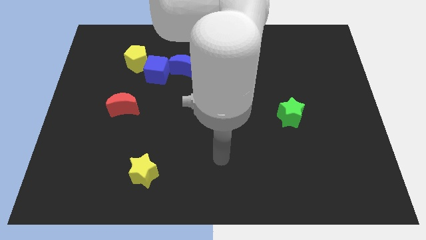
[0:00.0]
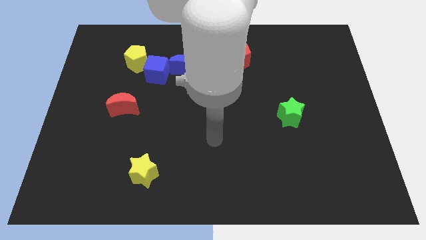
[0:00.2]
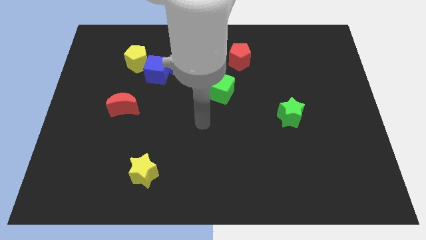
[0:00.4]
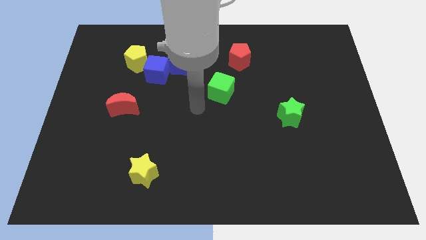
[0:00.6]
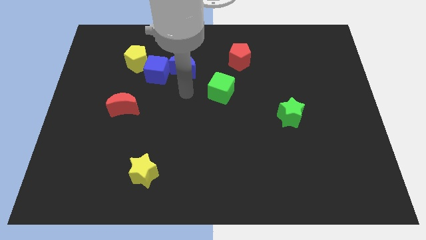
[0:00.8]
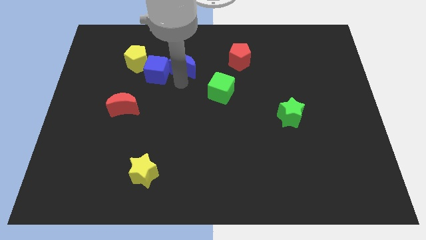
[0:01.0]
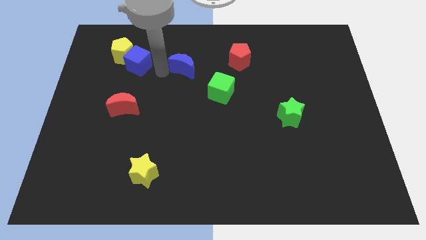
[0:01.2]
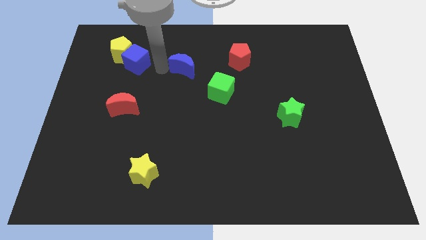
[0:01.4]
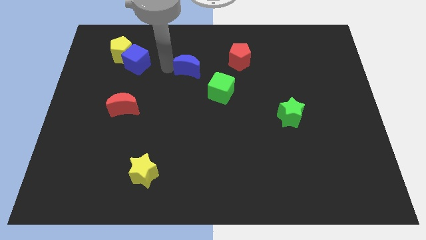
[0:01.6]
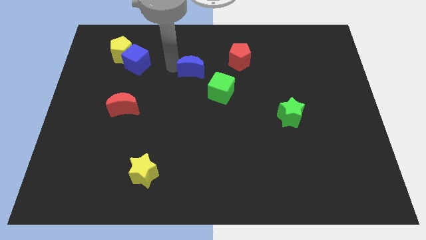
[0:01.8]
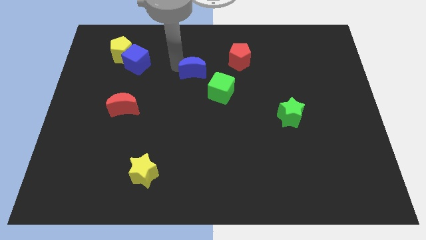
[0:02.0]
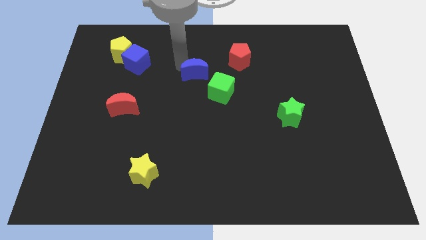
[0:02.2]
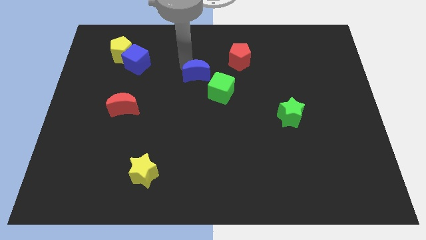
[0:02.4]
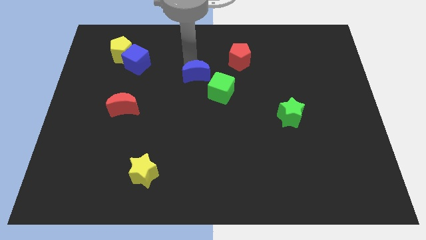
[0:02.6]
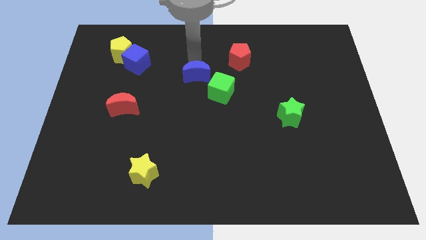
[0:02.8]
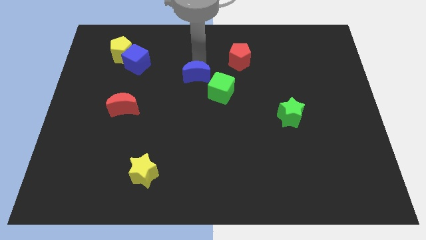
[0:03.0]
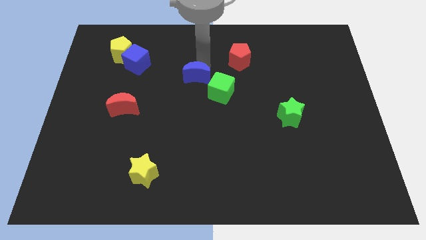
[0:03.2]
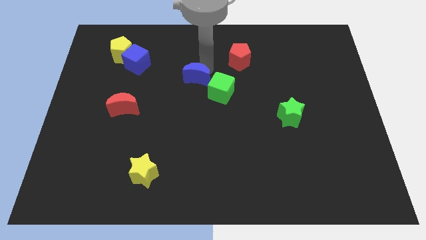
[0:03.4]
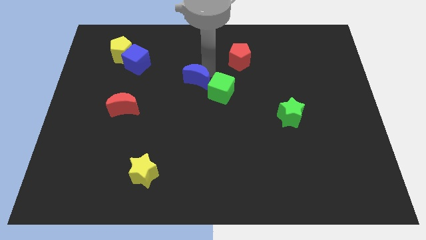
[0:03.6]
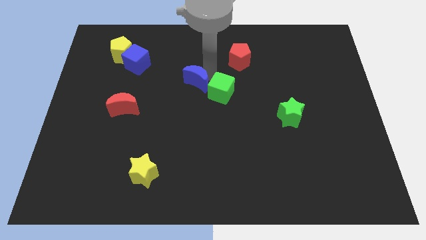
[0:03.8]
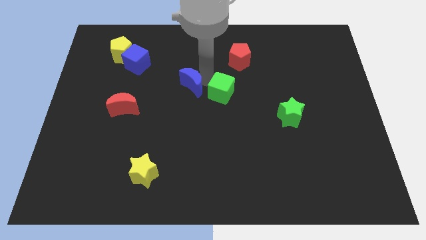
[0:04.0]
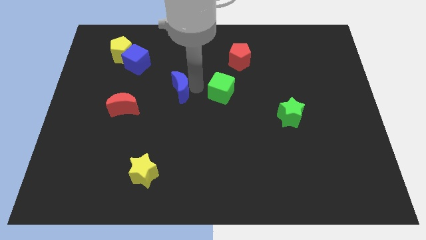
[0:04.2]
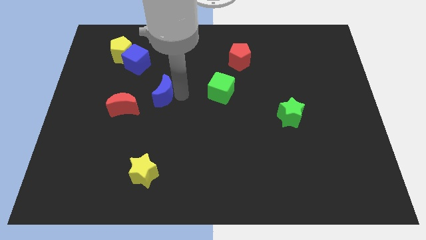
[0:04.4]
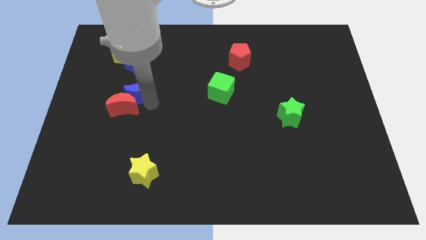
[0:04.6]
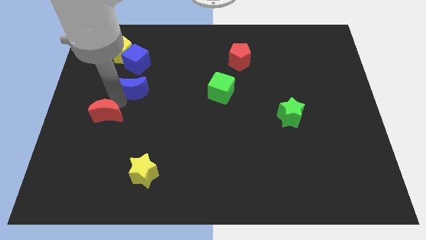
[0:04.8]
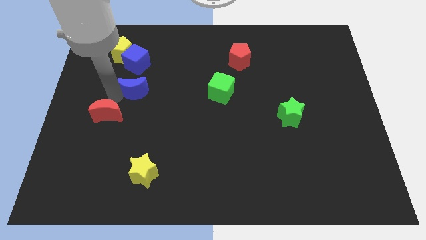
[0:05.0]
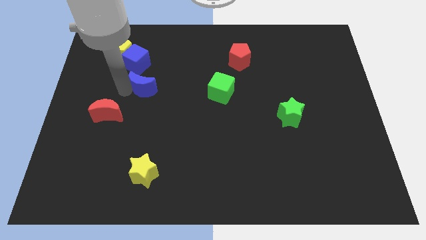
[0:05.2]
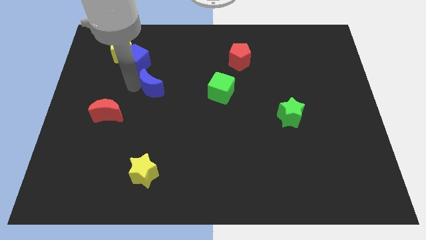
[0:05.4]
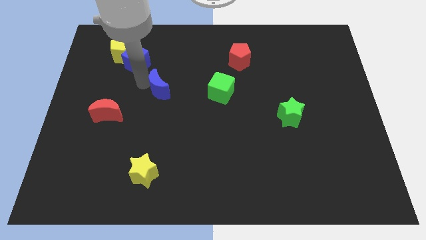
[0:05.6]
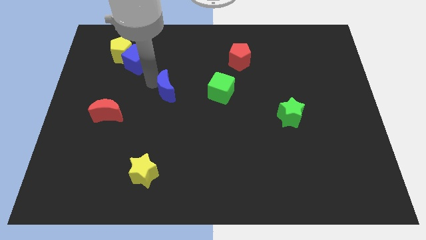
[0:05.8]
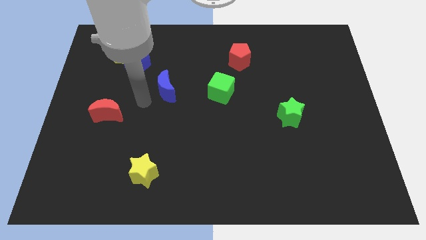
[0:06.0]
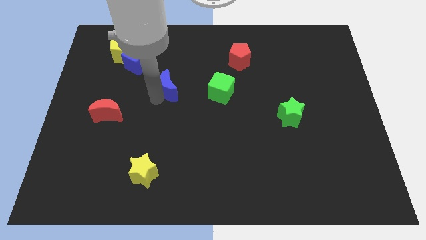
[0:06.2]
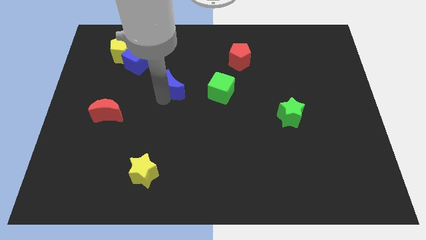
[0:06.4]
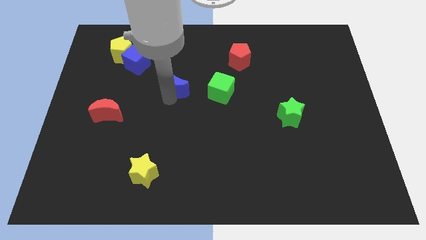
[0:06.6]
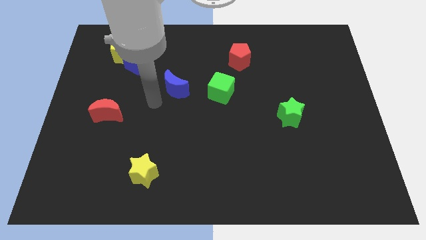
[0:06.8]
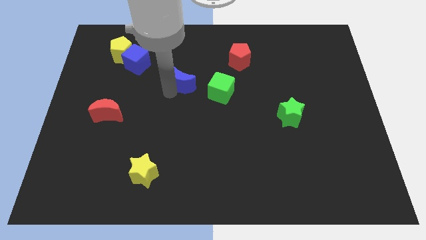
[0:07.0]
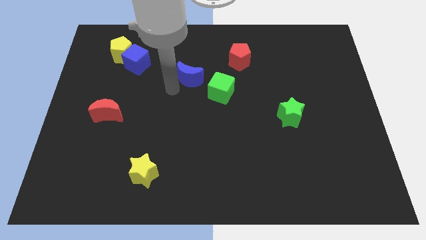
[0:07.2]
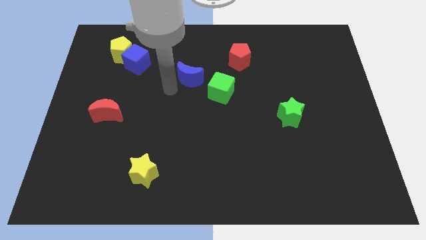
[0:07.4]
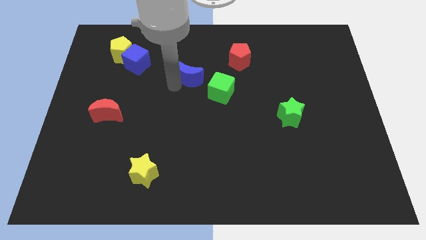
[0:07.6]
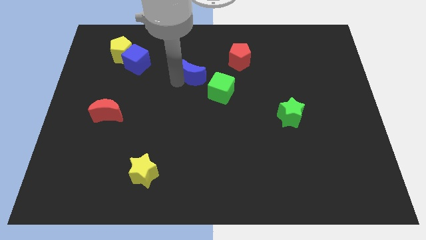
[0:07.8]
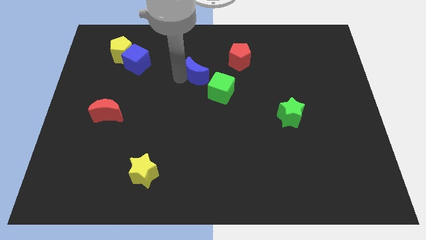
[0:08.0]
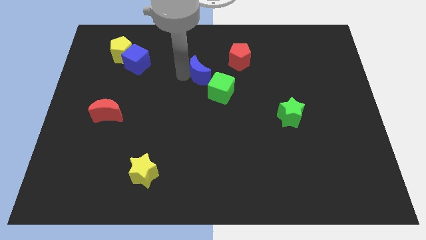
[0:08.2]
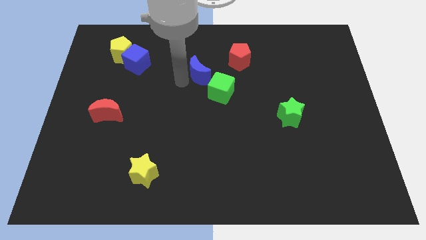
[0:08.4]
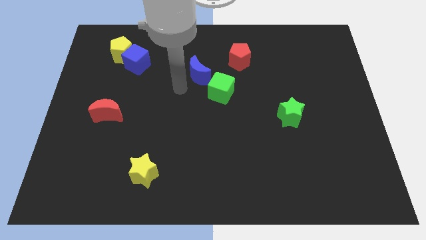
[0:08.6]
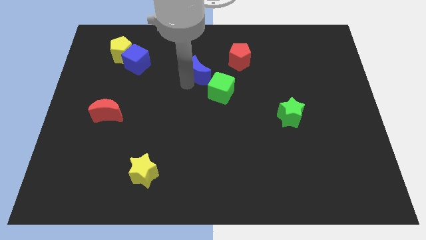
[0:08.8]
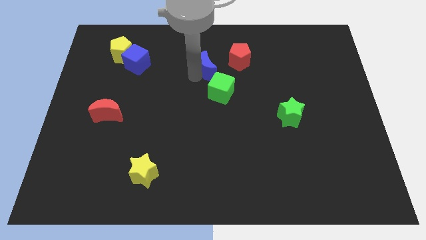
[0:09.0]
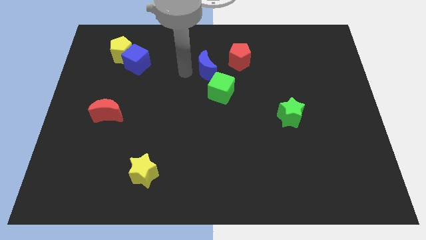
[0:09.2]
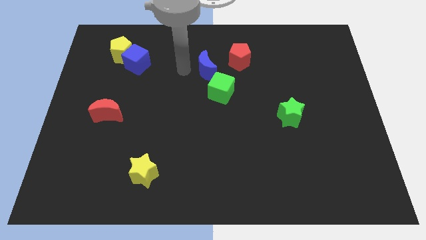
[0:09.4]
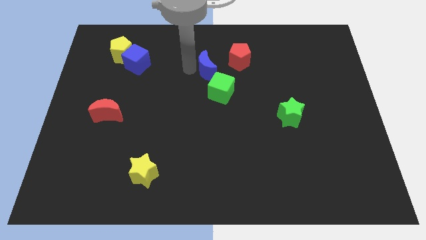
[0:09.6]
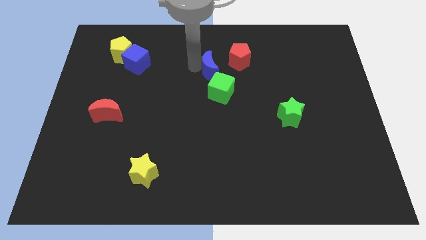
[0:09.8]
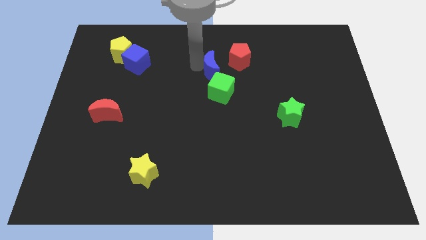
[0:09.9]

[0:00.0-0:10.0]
move the blue moon to the right a little

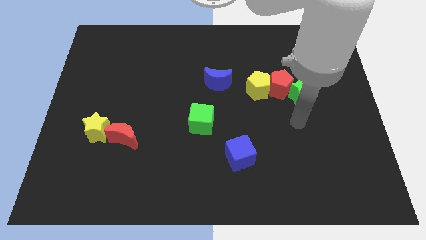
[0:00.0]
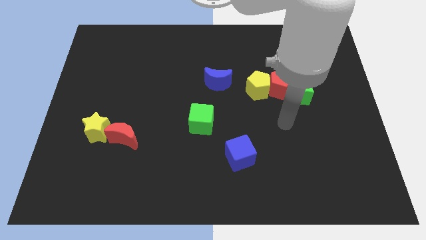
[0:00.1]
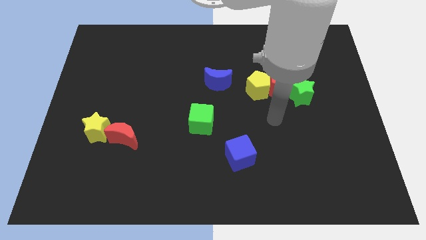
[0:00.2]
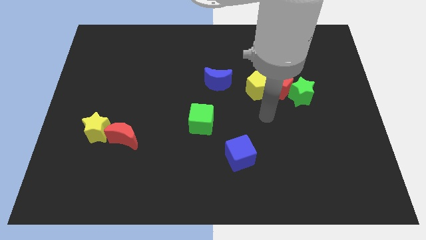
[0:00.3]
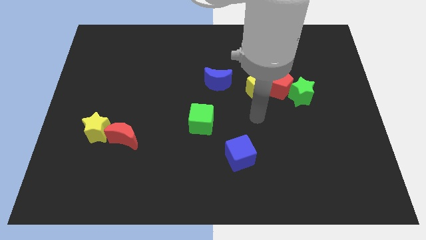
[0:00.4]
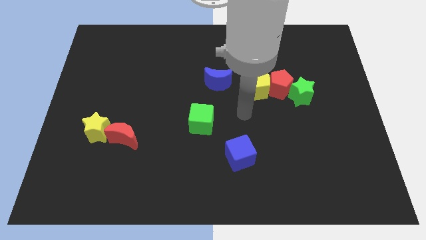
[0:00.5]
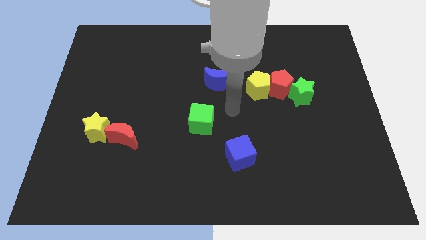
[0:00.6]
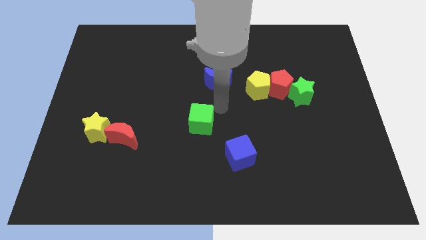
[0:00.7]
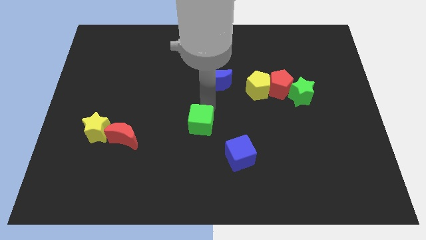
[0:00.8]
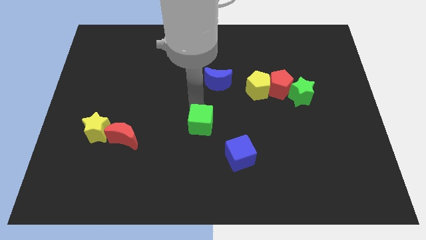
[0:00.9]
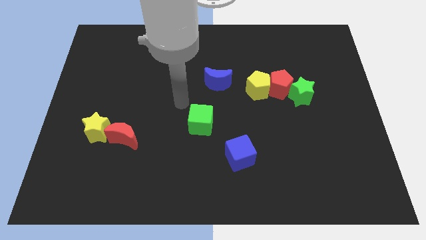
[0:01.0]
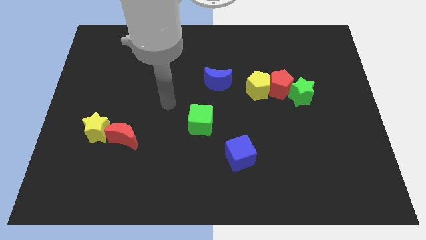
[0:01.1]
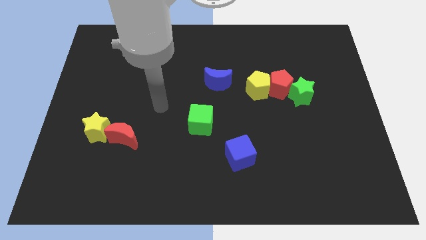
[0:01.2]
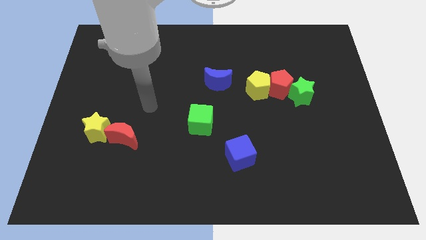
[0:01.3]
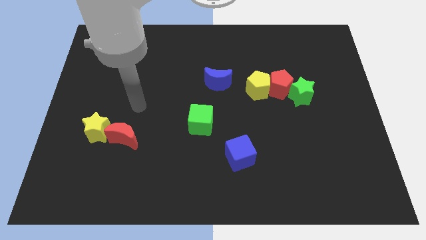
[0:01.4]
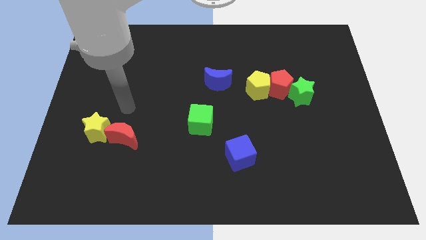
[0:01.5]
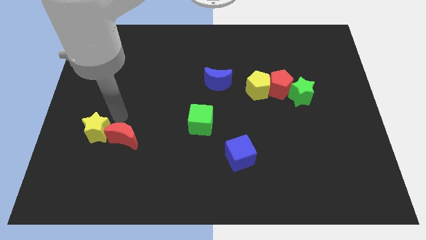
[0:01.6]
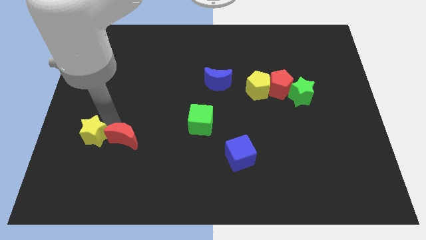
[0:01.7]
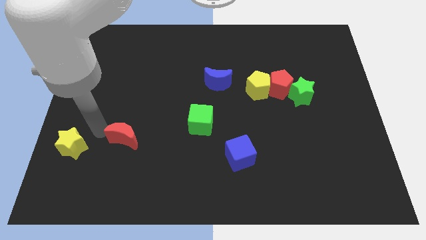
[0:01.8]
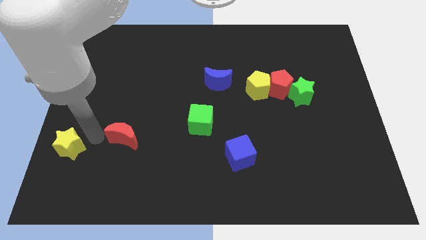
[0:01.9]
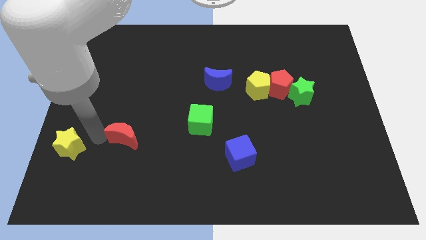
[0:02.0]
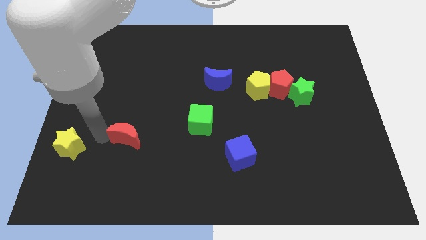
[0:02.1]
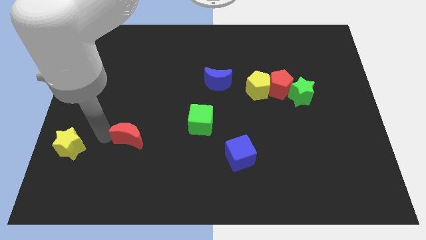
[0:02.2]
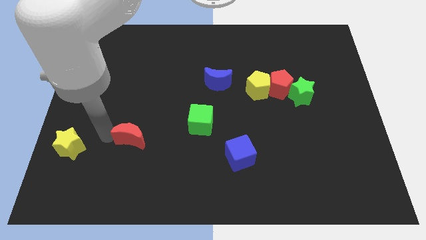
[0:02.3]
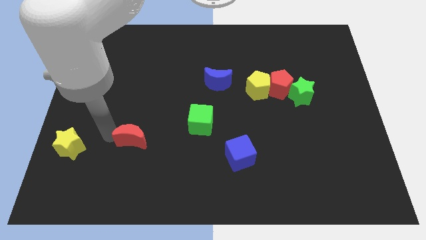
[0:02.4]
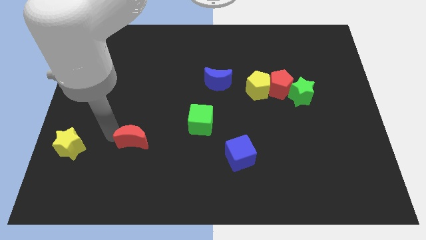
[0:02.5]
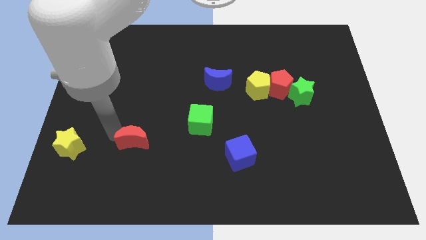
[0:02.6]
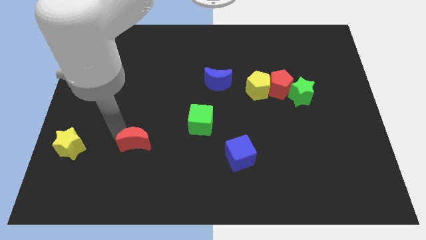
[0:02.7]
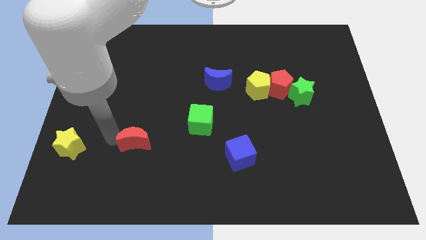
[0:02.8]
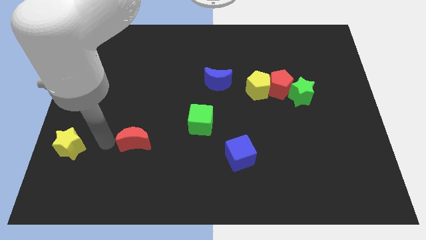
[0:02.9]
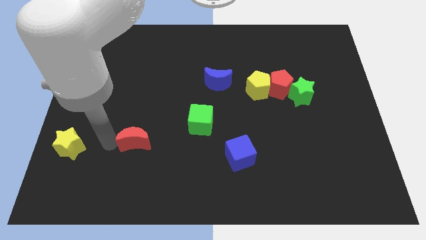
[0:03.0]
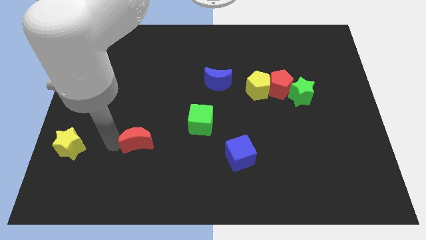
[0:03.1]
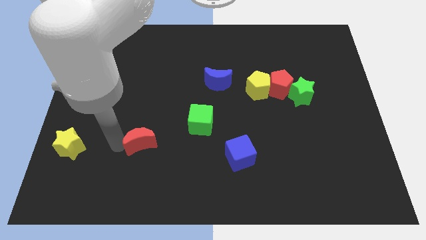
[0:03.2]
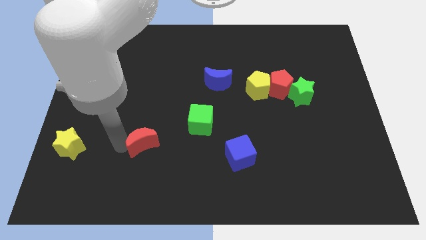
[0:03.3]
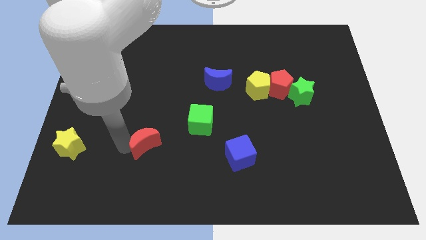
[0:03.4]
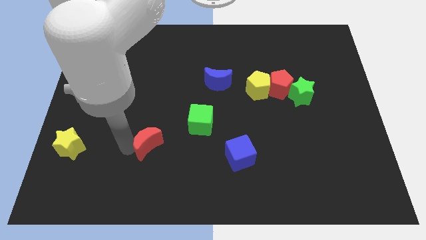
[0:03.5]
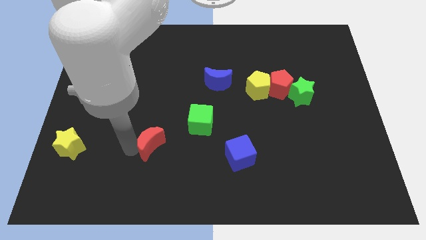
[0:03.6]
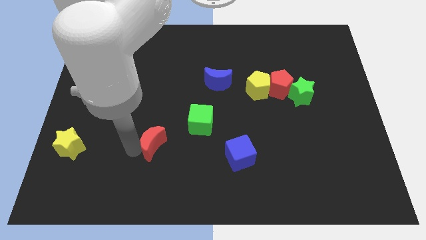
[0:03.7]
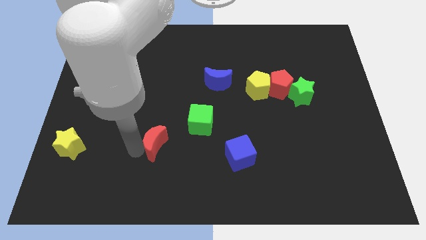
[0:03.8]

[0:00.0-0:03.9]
slightly push the red moon right
